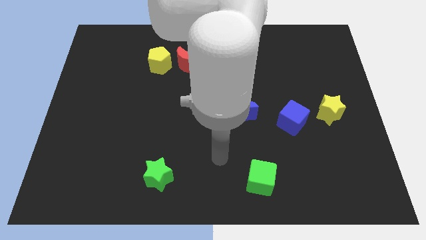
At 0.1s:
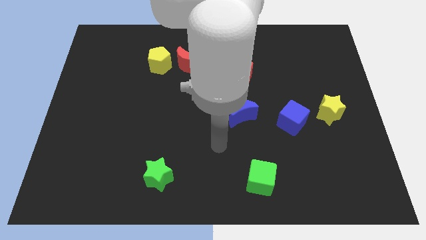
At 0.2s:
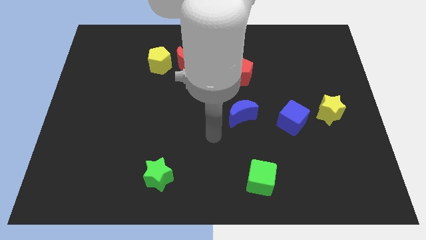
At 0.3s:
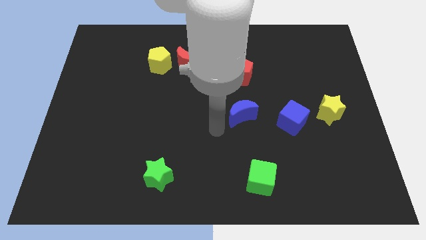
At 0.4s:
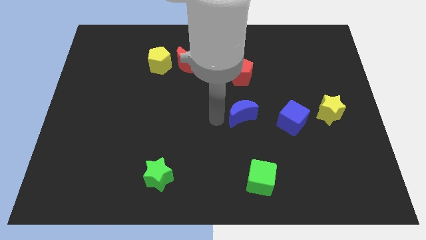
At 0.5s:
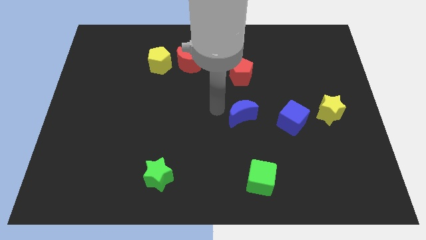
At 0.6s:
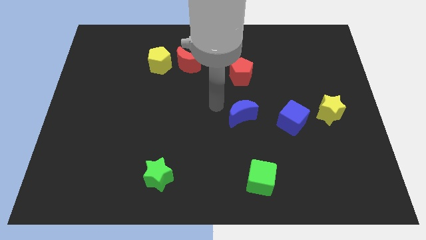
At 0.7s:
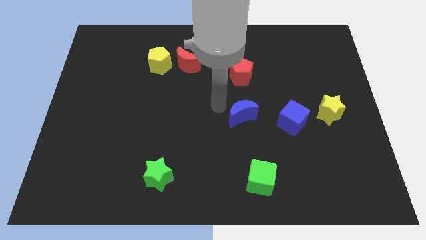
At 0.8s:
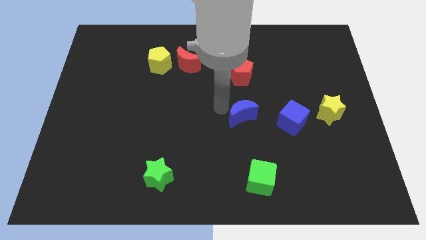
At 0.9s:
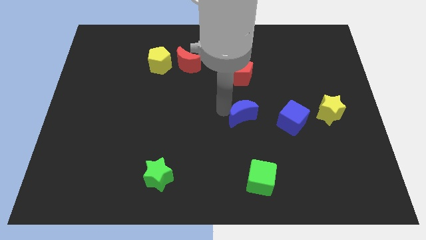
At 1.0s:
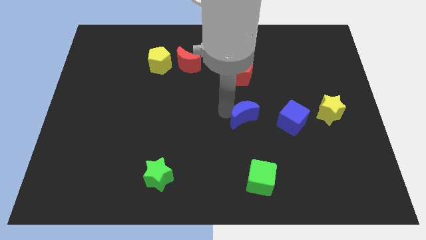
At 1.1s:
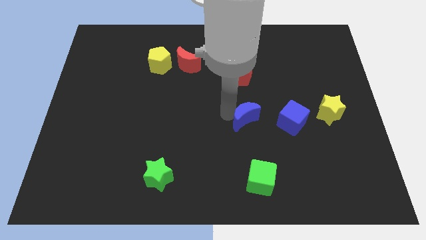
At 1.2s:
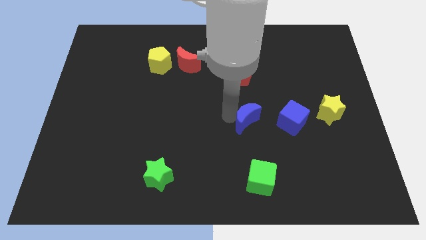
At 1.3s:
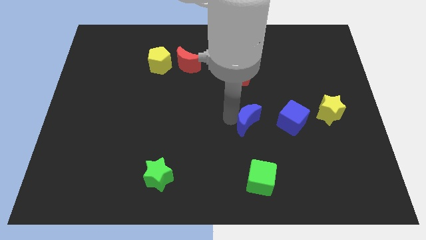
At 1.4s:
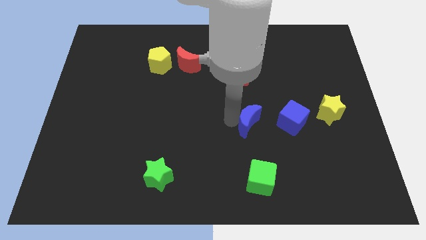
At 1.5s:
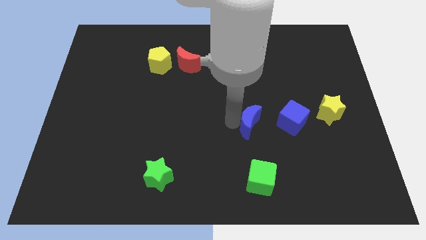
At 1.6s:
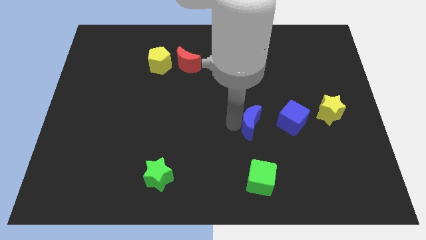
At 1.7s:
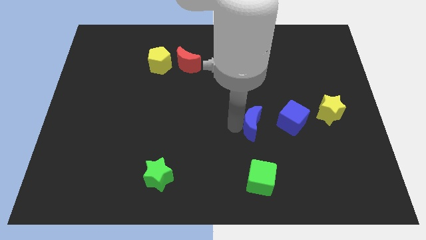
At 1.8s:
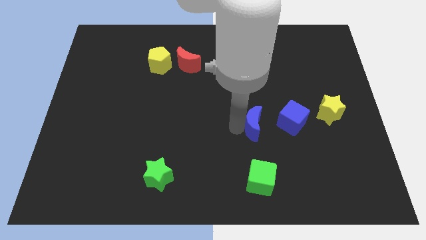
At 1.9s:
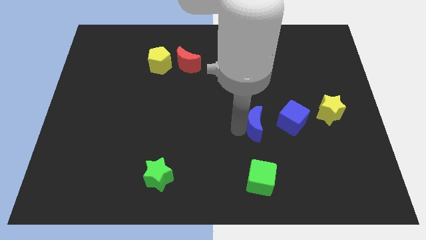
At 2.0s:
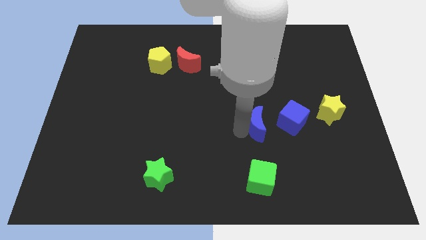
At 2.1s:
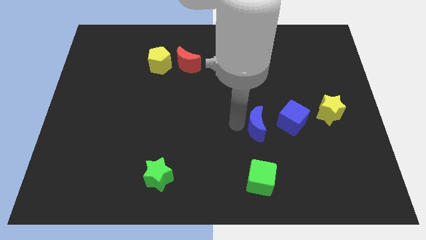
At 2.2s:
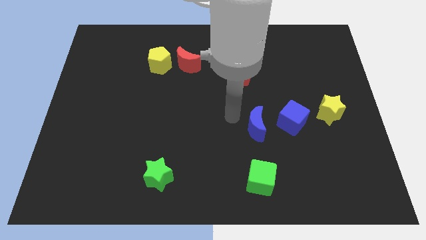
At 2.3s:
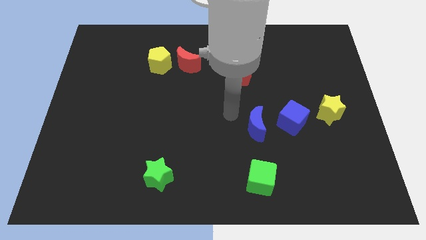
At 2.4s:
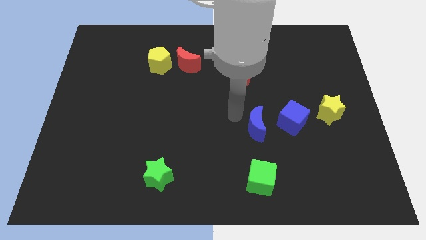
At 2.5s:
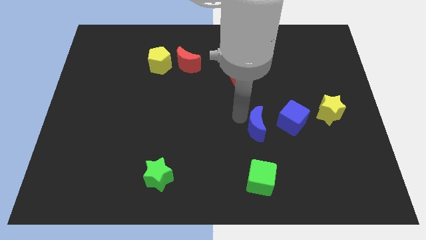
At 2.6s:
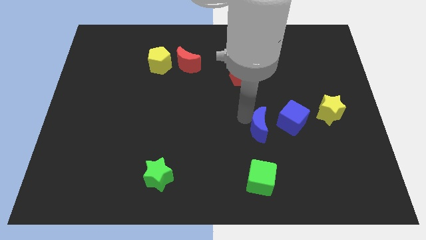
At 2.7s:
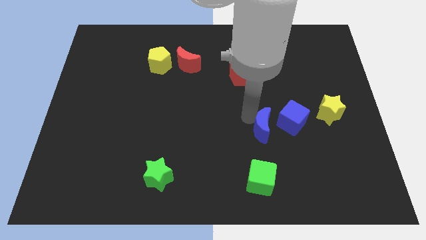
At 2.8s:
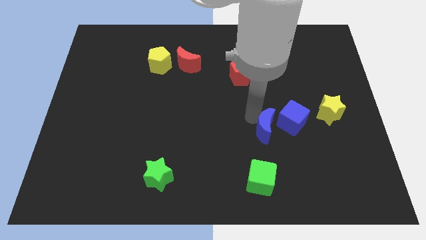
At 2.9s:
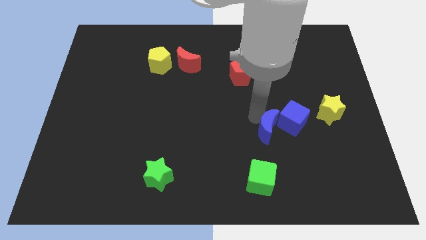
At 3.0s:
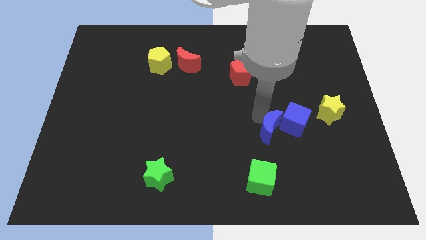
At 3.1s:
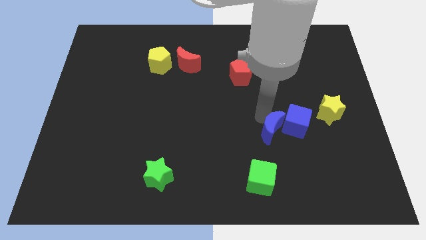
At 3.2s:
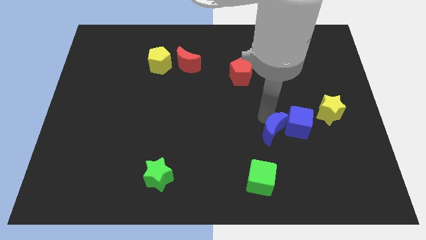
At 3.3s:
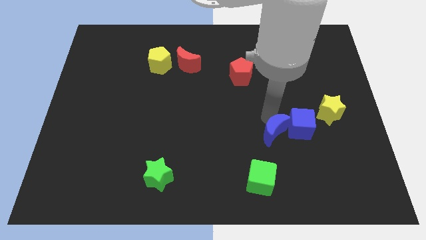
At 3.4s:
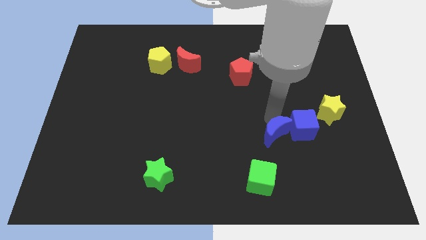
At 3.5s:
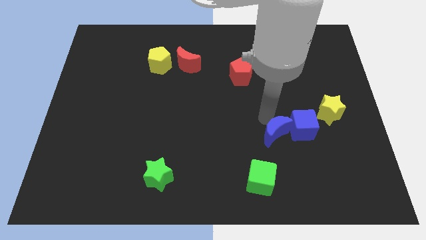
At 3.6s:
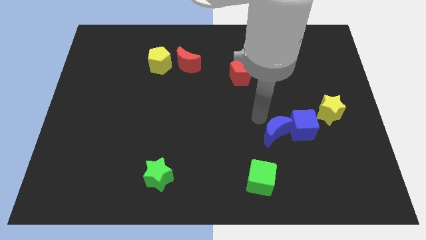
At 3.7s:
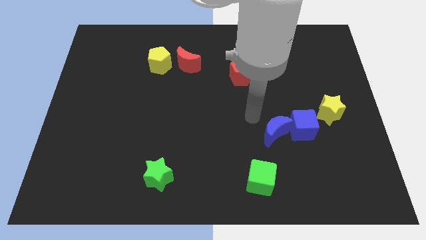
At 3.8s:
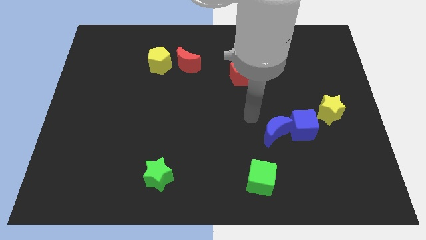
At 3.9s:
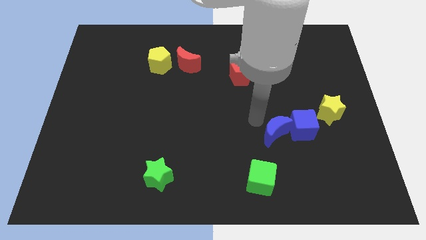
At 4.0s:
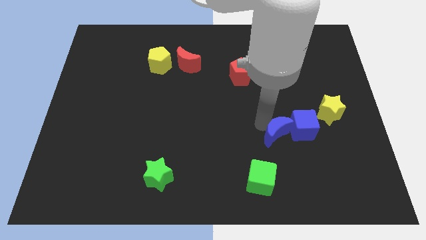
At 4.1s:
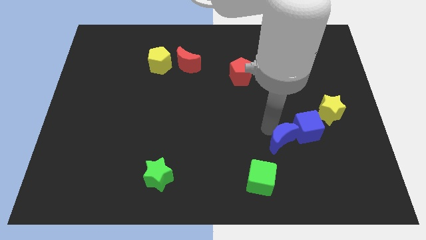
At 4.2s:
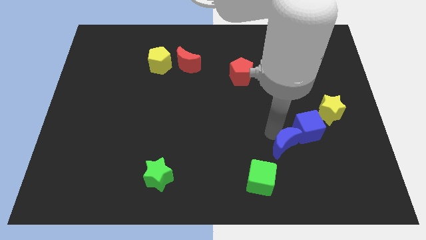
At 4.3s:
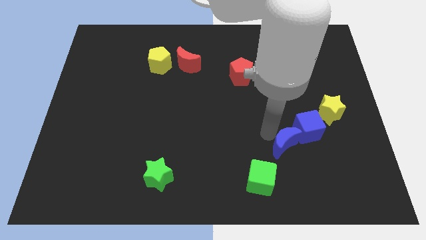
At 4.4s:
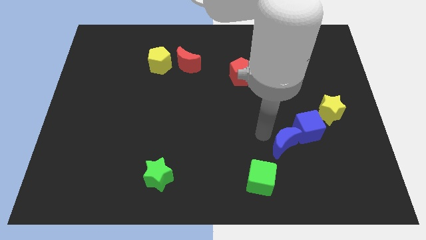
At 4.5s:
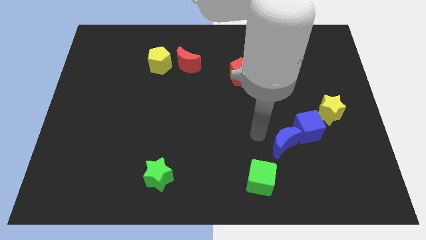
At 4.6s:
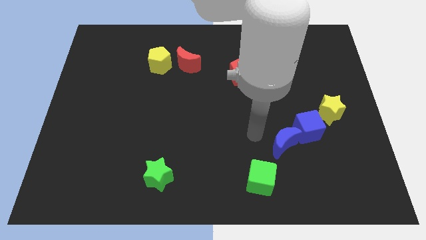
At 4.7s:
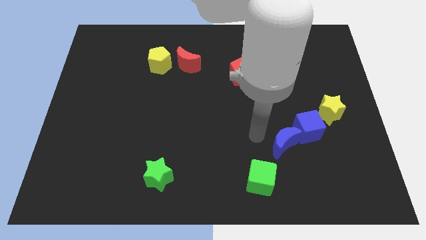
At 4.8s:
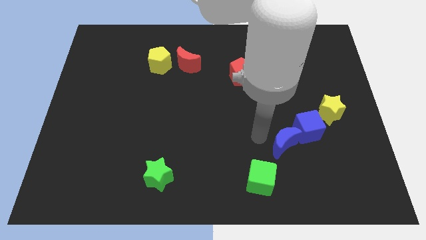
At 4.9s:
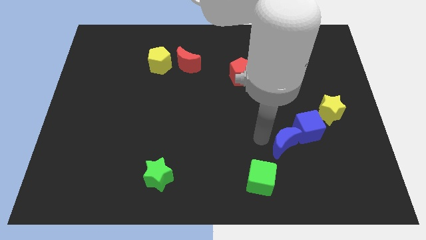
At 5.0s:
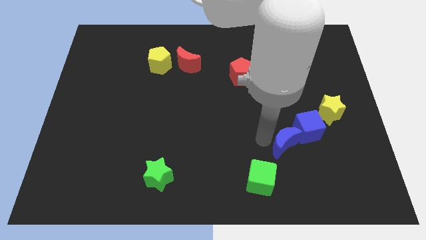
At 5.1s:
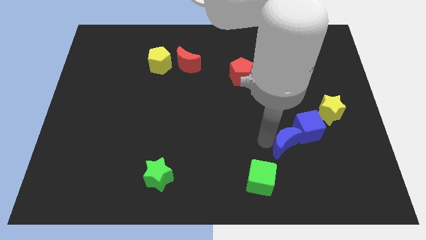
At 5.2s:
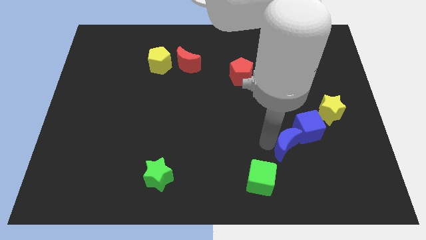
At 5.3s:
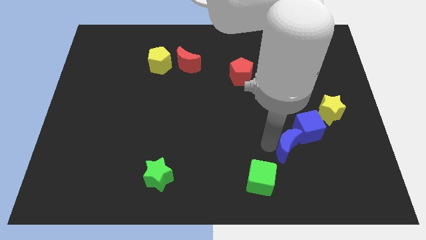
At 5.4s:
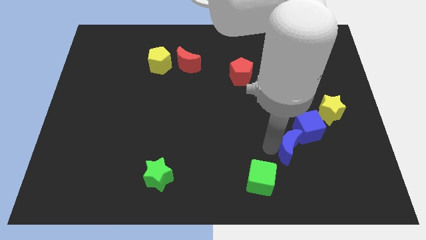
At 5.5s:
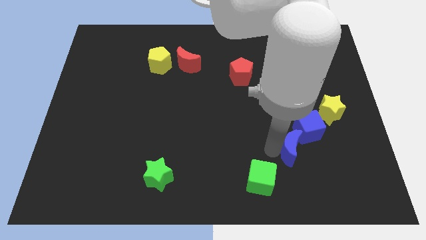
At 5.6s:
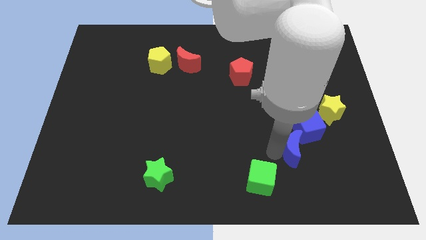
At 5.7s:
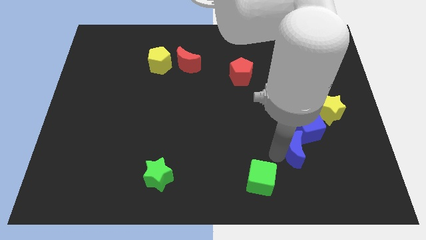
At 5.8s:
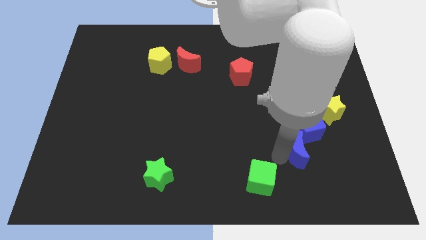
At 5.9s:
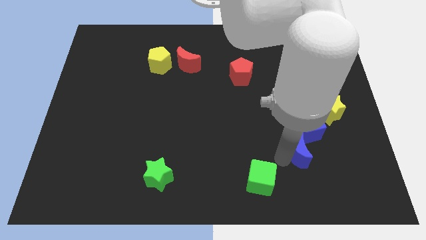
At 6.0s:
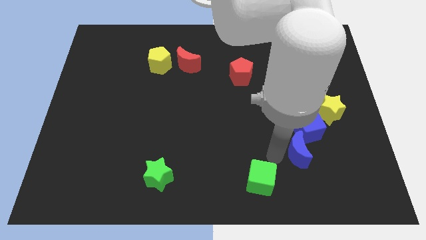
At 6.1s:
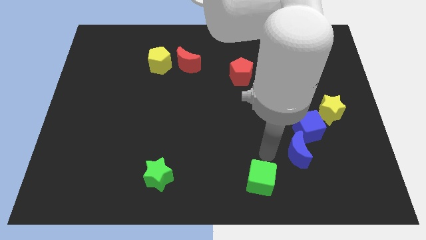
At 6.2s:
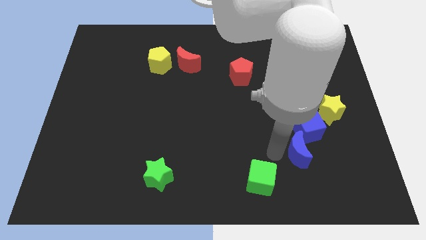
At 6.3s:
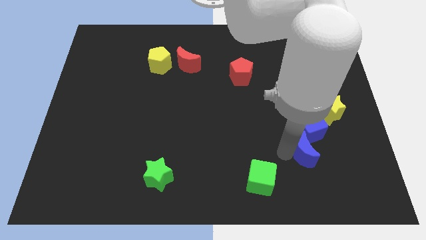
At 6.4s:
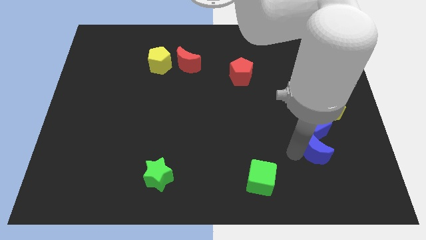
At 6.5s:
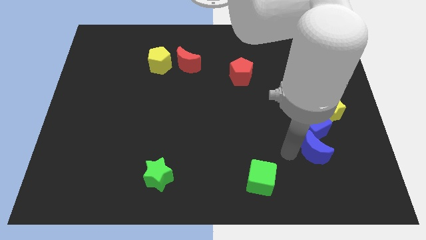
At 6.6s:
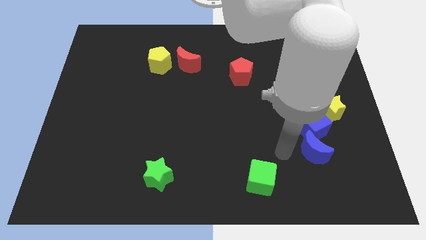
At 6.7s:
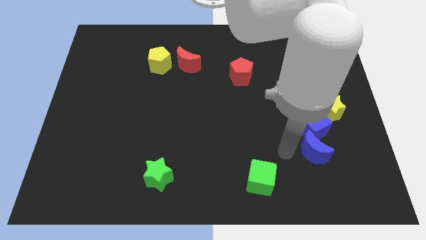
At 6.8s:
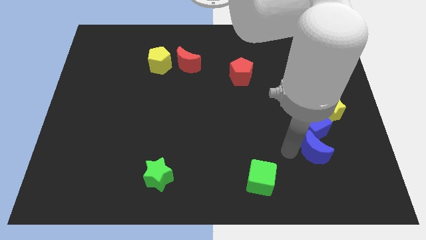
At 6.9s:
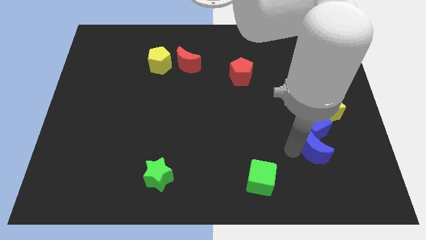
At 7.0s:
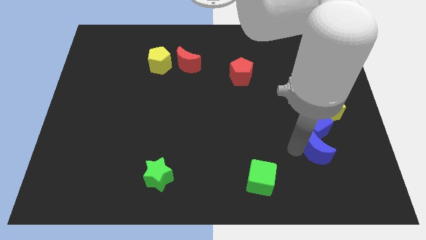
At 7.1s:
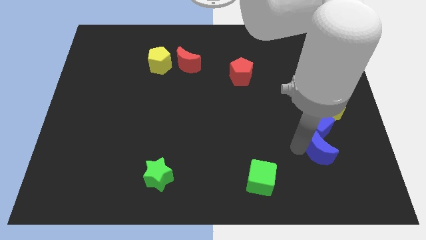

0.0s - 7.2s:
put the blue moon to the bottom side of the yellow star

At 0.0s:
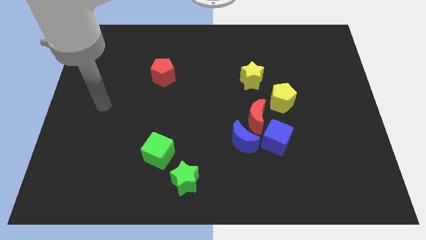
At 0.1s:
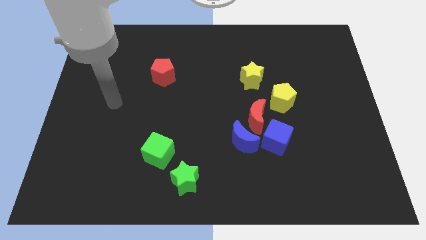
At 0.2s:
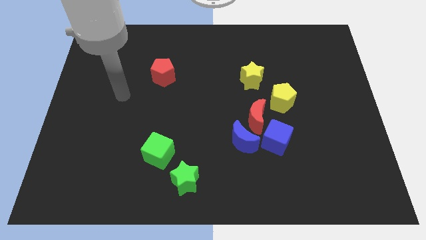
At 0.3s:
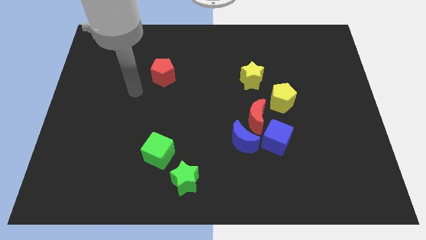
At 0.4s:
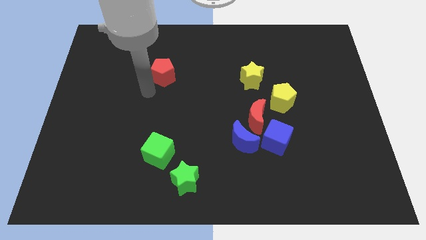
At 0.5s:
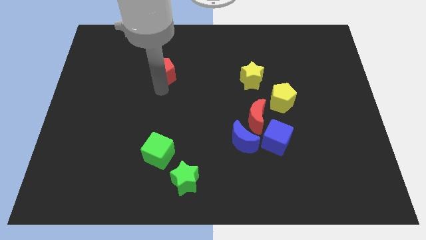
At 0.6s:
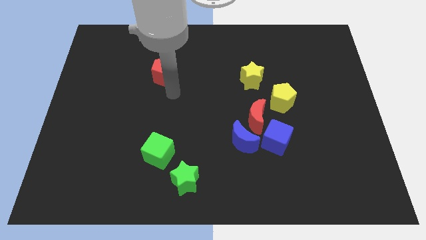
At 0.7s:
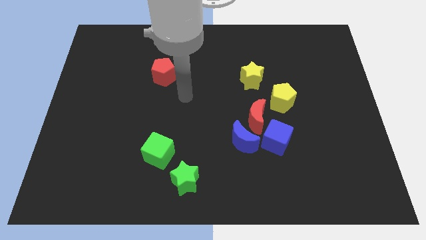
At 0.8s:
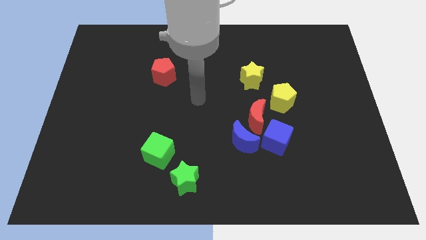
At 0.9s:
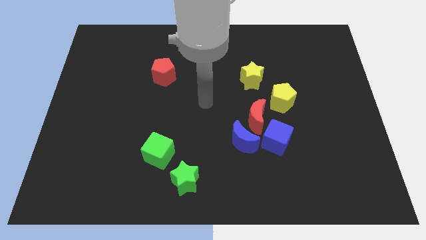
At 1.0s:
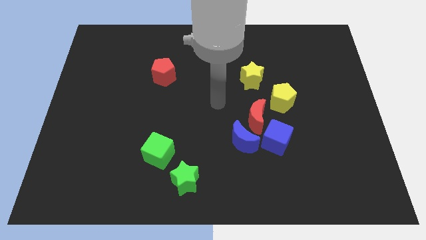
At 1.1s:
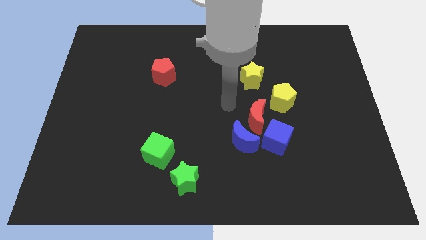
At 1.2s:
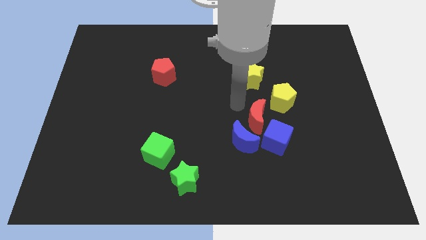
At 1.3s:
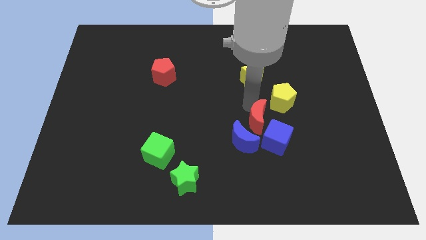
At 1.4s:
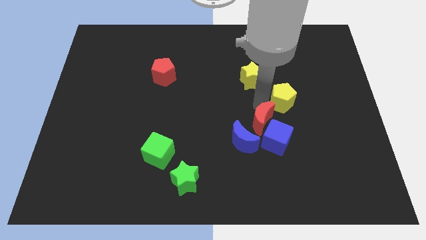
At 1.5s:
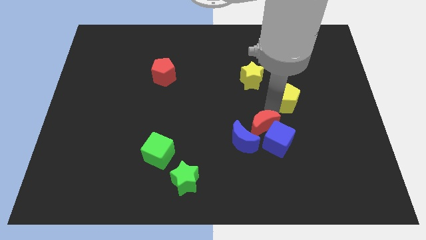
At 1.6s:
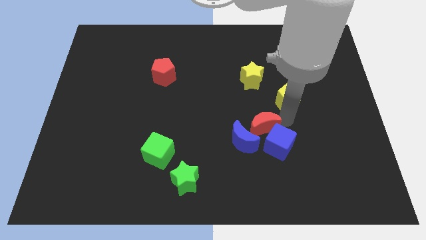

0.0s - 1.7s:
put the blue cube diagonally down and to the right of the blue moon
